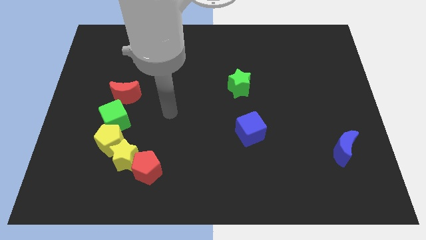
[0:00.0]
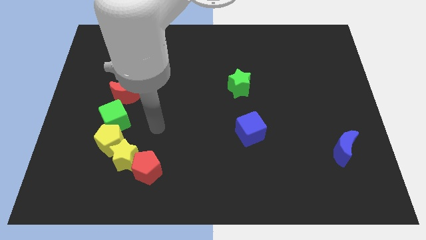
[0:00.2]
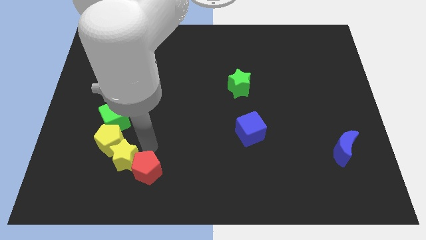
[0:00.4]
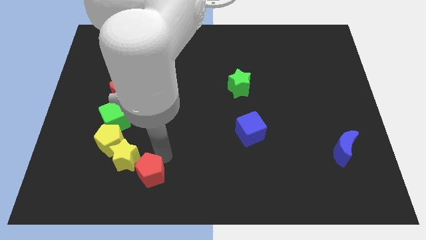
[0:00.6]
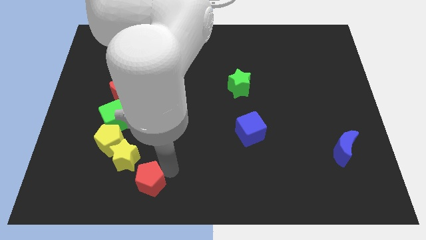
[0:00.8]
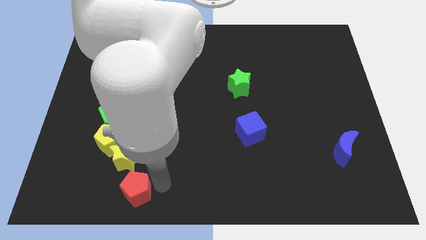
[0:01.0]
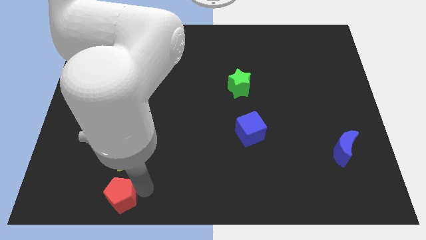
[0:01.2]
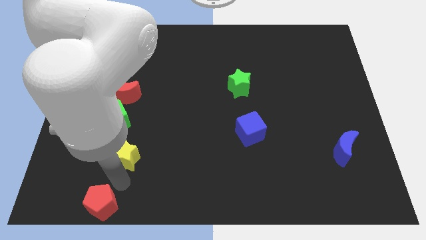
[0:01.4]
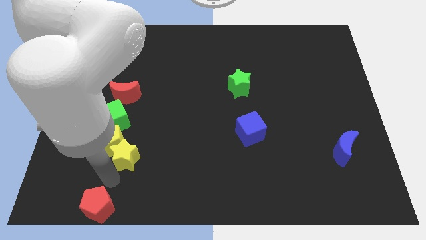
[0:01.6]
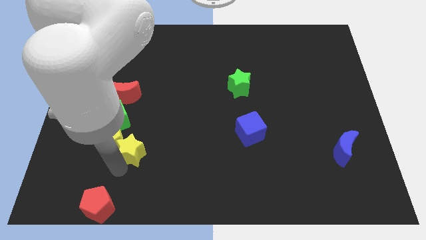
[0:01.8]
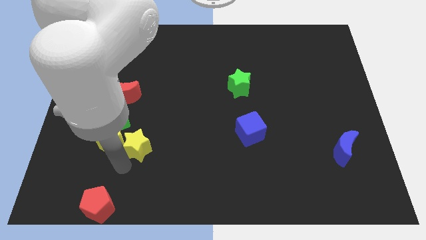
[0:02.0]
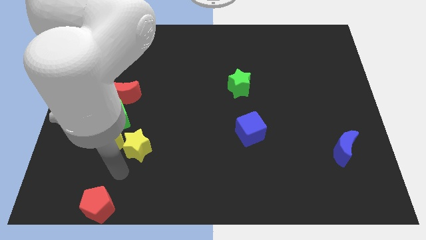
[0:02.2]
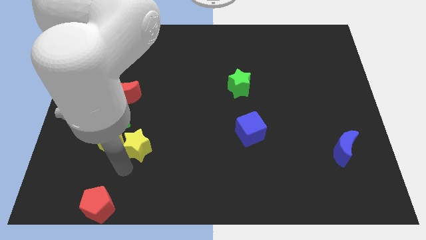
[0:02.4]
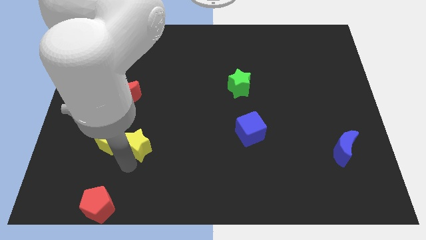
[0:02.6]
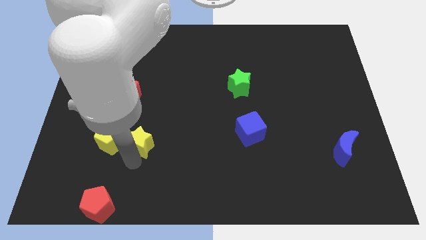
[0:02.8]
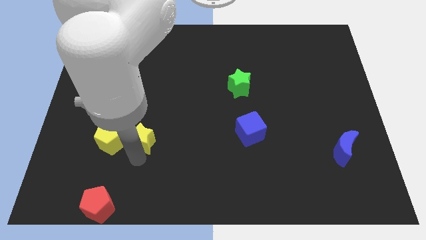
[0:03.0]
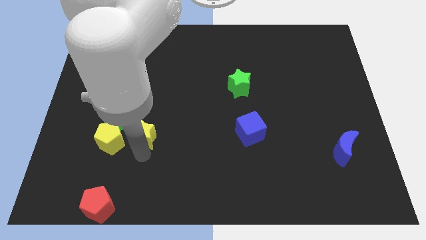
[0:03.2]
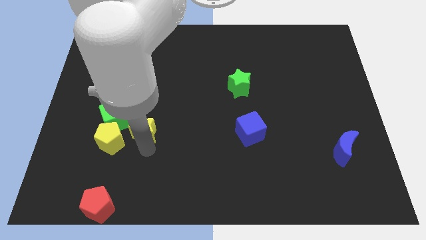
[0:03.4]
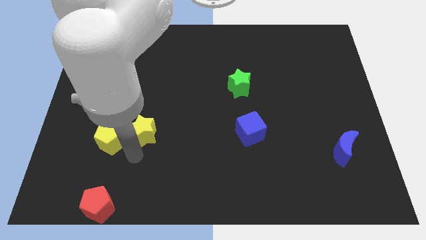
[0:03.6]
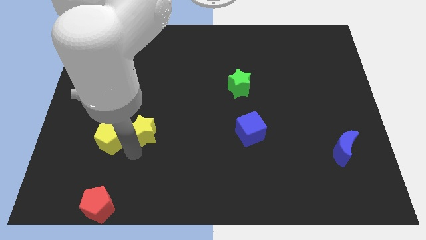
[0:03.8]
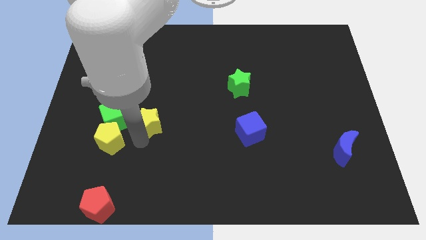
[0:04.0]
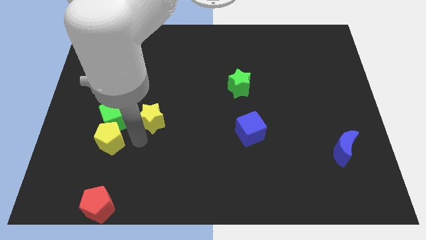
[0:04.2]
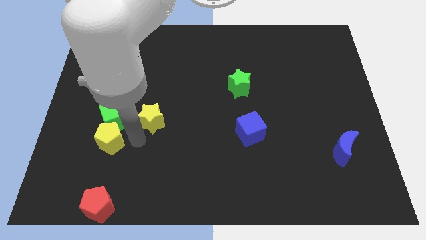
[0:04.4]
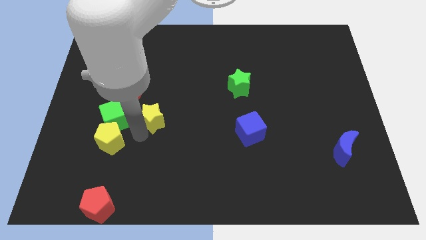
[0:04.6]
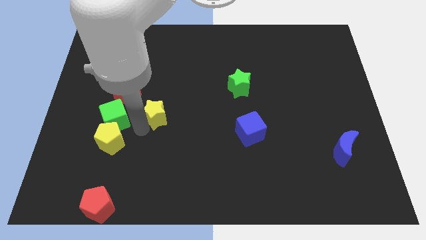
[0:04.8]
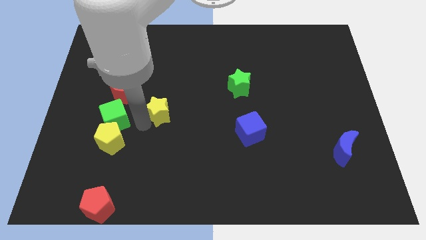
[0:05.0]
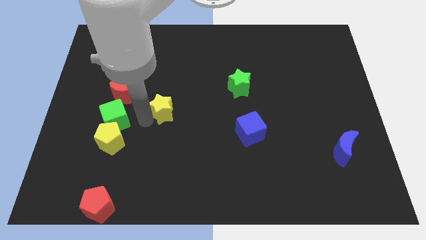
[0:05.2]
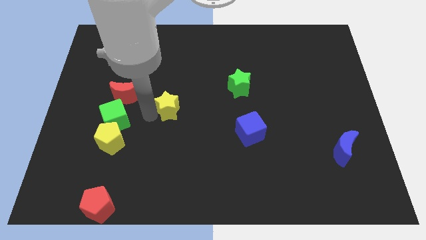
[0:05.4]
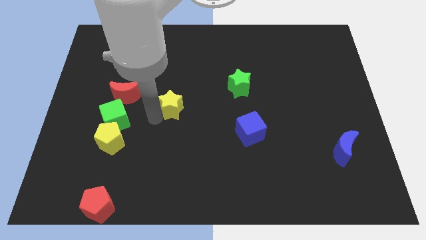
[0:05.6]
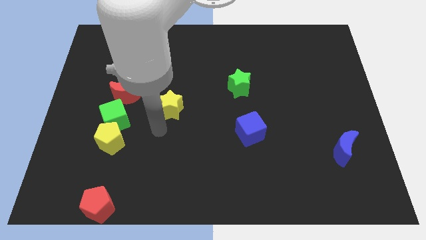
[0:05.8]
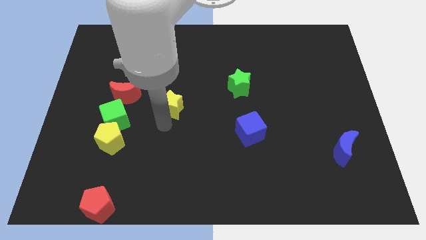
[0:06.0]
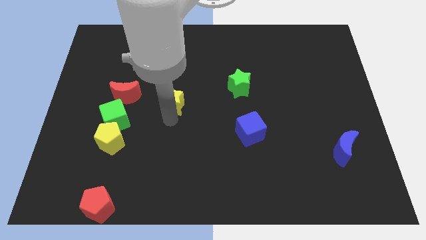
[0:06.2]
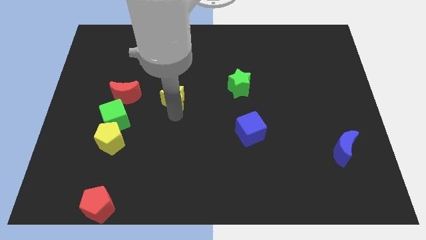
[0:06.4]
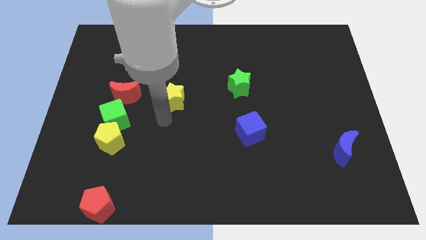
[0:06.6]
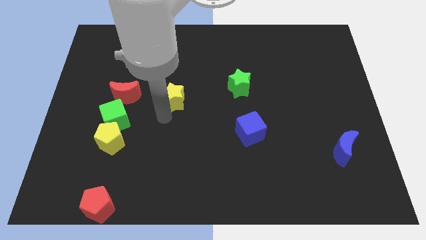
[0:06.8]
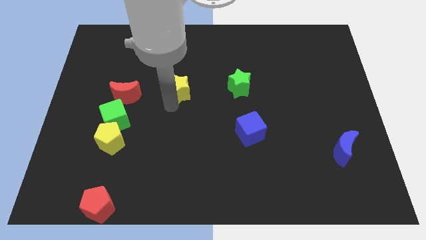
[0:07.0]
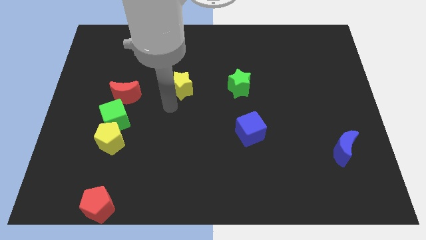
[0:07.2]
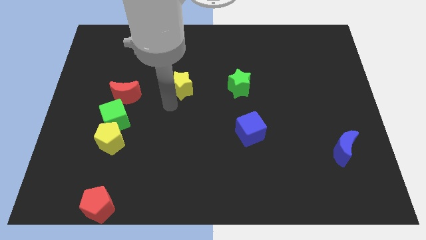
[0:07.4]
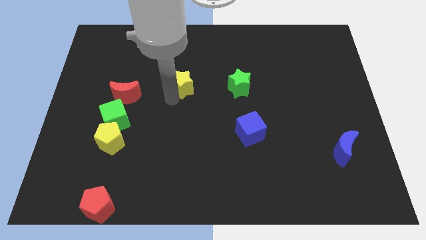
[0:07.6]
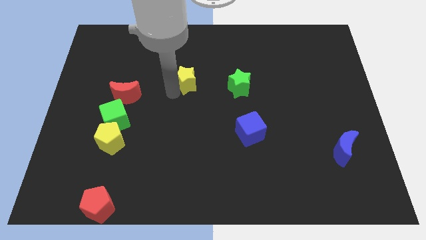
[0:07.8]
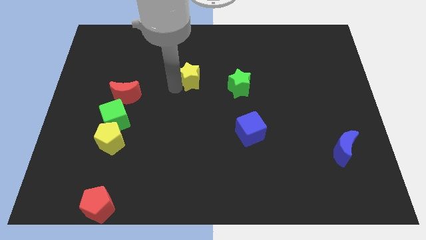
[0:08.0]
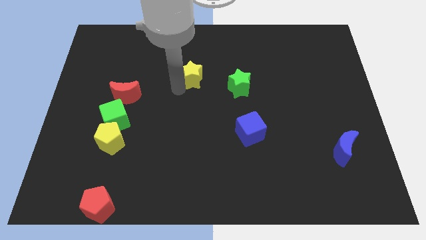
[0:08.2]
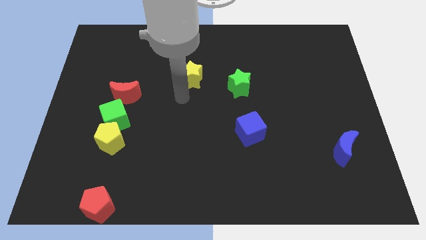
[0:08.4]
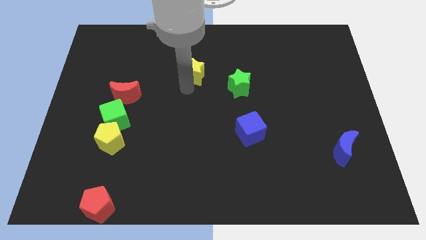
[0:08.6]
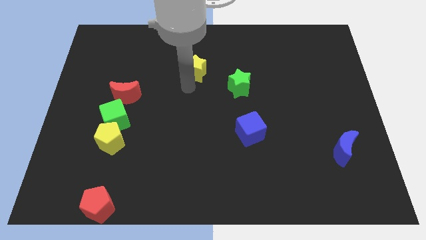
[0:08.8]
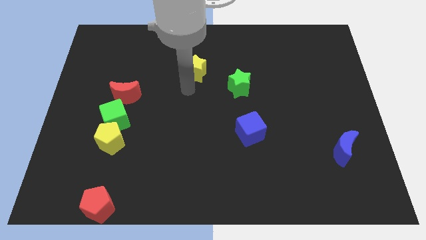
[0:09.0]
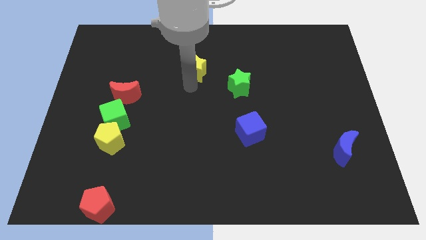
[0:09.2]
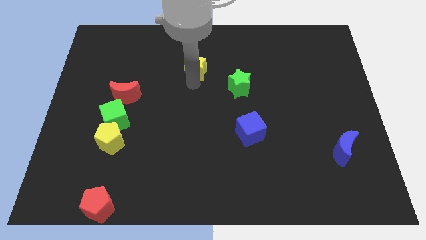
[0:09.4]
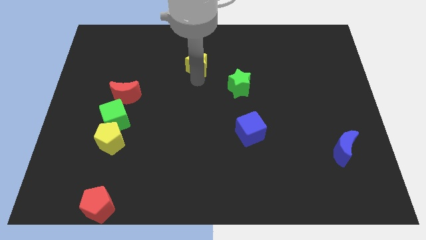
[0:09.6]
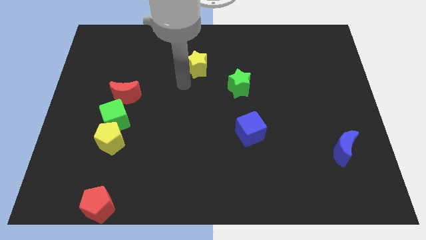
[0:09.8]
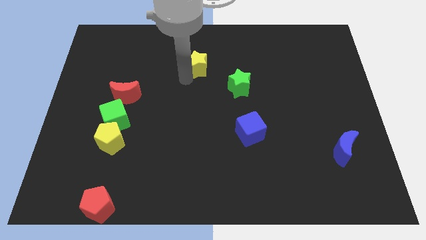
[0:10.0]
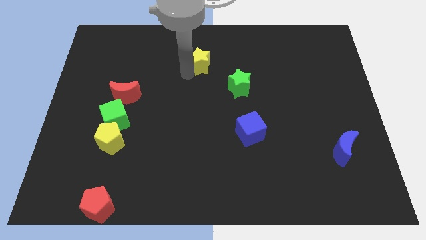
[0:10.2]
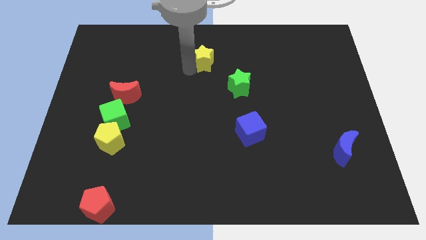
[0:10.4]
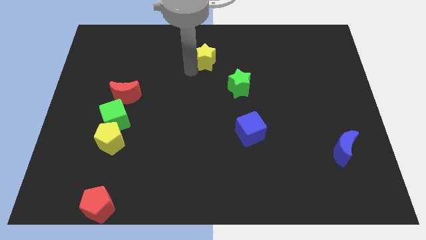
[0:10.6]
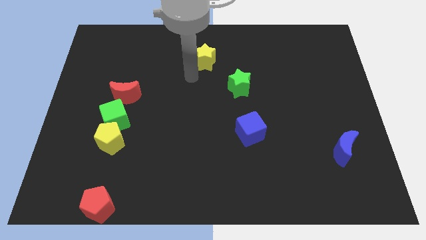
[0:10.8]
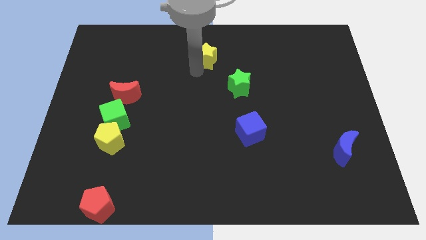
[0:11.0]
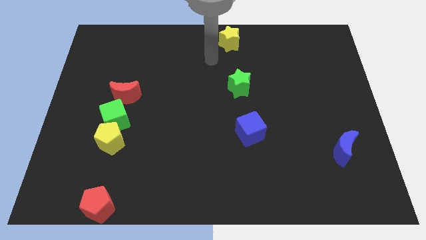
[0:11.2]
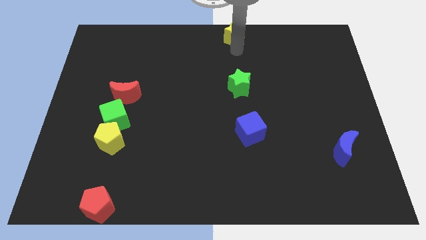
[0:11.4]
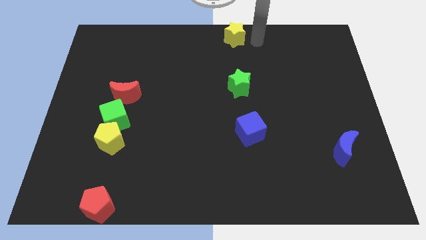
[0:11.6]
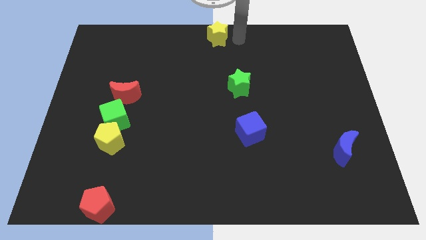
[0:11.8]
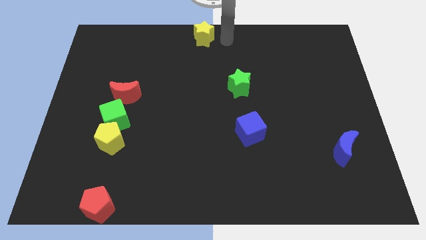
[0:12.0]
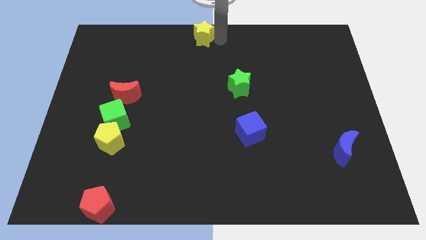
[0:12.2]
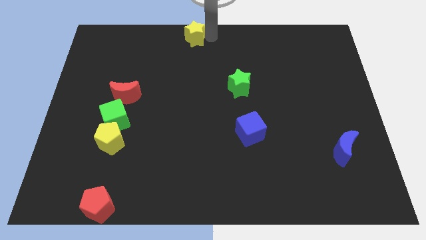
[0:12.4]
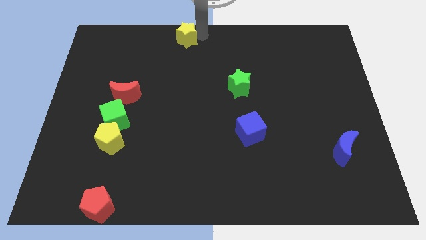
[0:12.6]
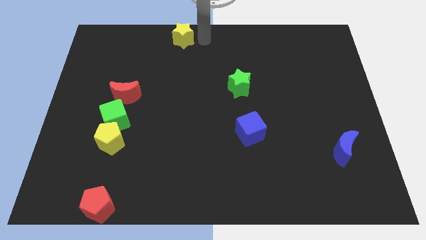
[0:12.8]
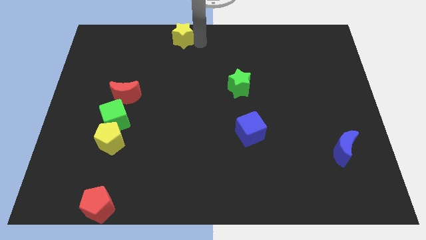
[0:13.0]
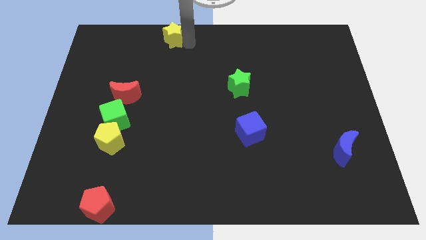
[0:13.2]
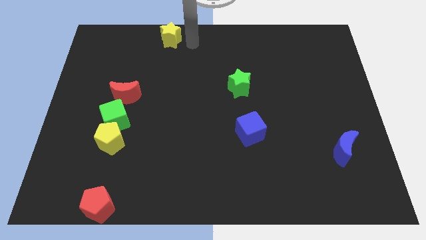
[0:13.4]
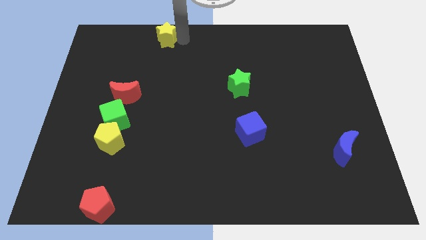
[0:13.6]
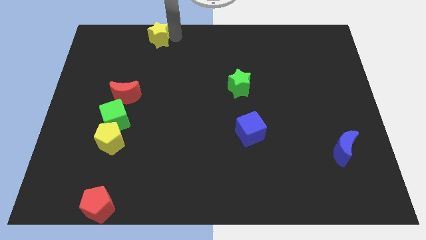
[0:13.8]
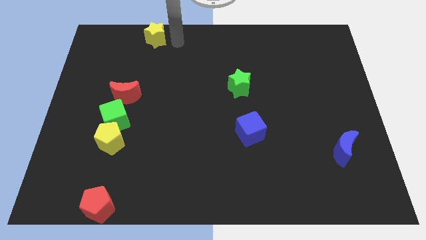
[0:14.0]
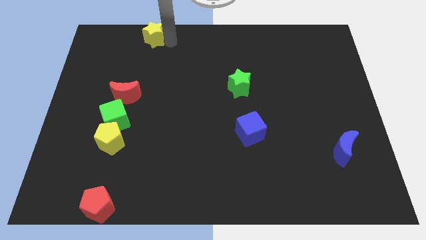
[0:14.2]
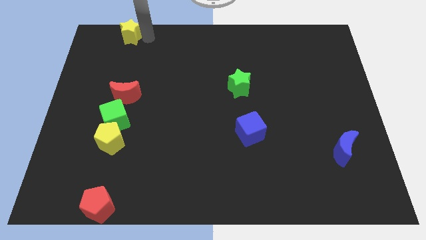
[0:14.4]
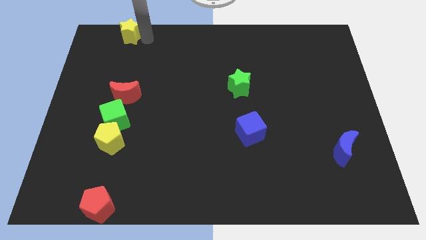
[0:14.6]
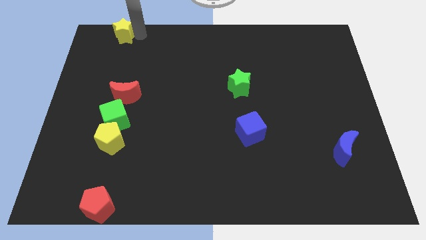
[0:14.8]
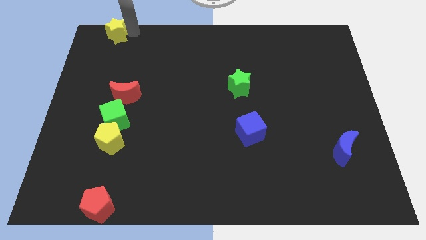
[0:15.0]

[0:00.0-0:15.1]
put the yellow star to the upper left corner
